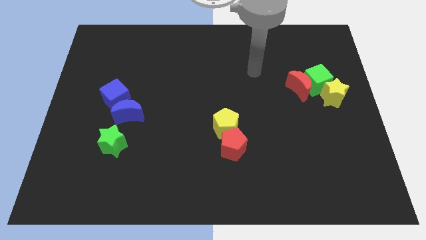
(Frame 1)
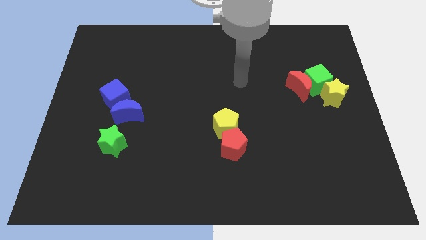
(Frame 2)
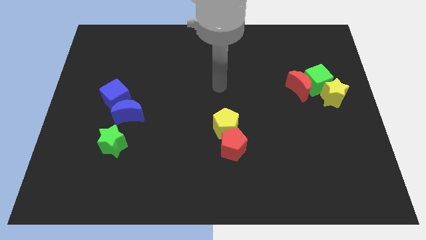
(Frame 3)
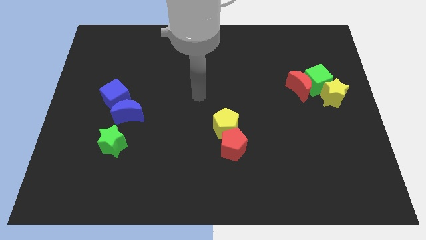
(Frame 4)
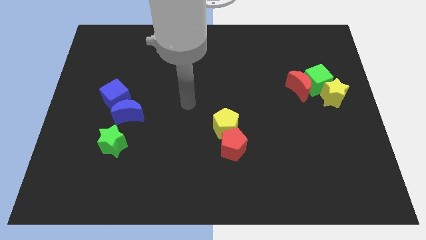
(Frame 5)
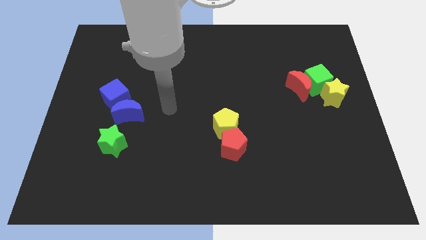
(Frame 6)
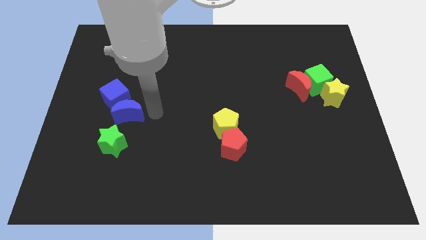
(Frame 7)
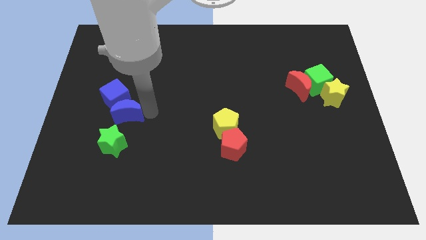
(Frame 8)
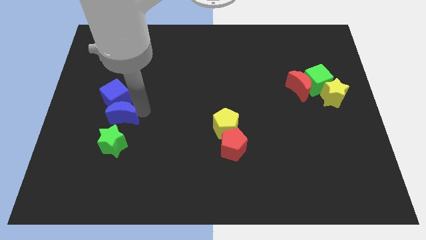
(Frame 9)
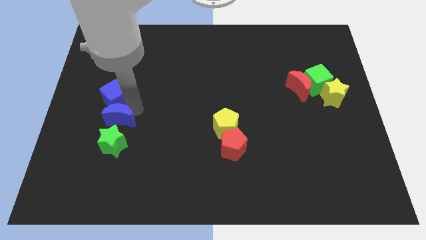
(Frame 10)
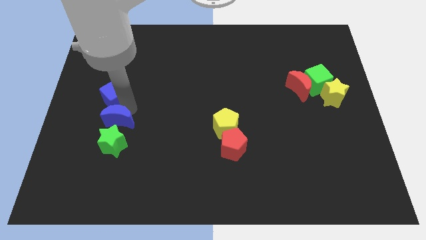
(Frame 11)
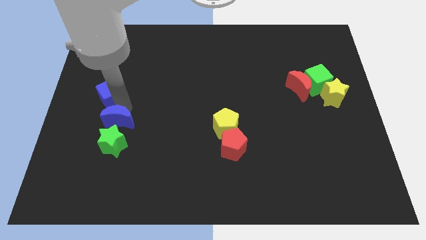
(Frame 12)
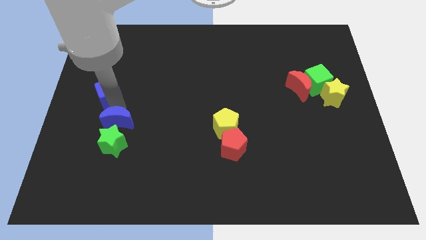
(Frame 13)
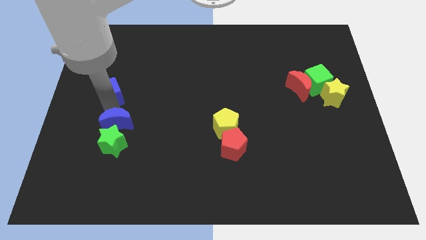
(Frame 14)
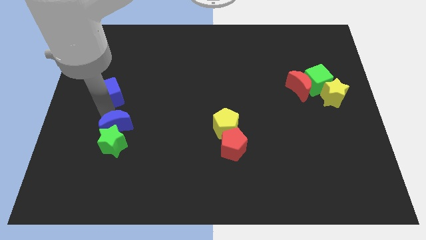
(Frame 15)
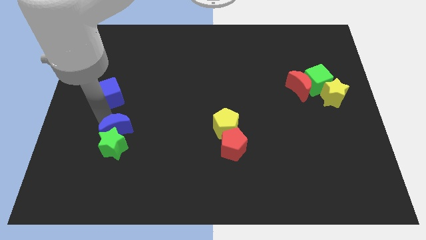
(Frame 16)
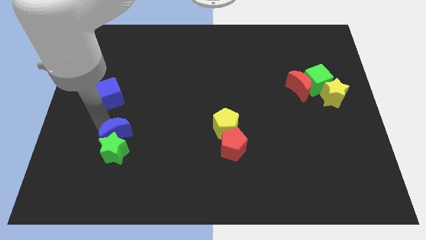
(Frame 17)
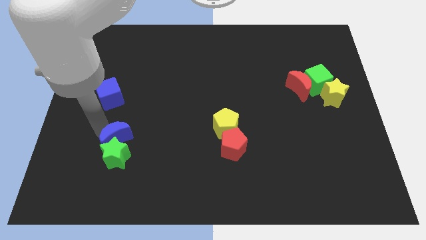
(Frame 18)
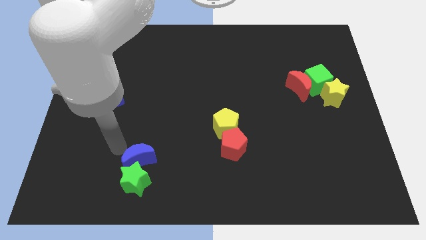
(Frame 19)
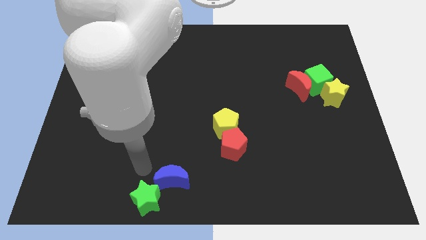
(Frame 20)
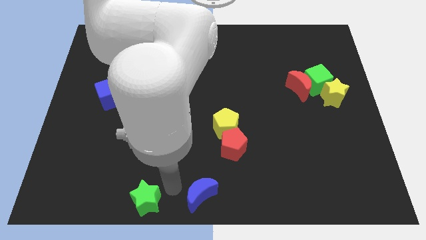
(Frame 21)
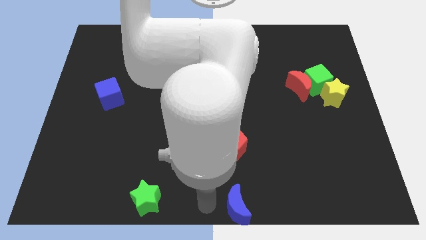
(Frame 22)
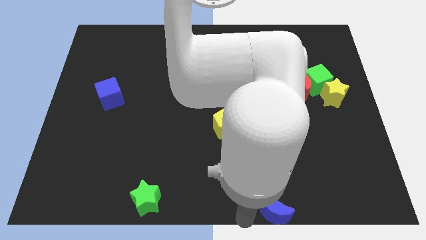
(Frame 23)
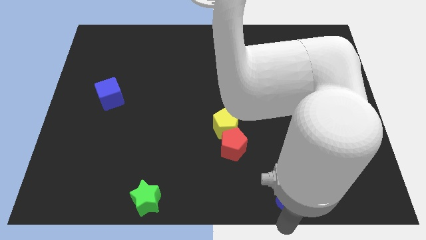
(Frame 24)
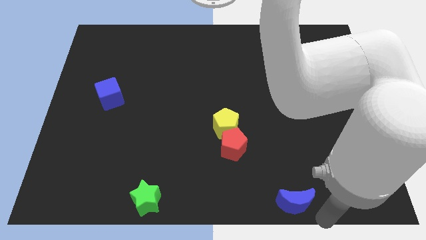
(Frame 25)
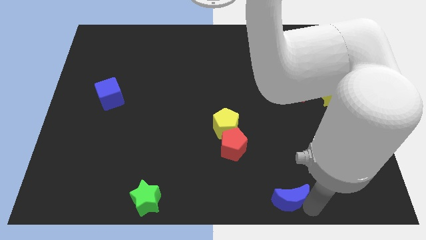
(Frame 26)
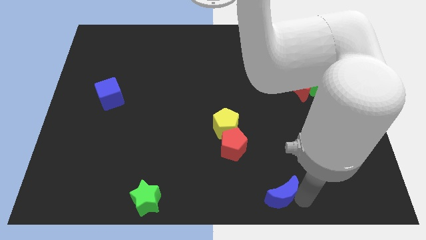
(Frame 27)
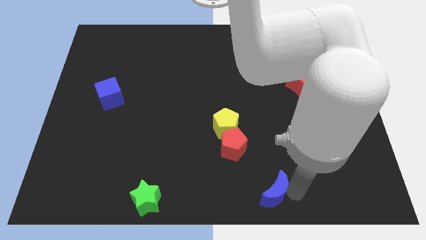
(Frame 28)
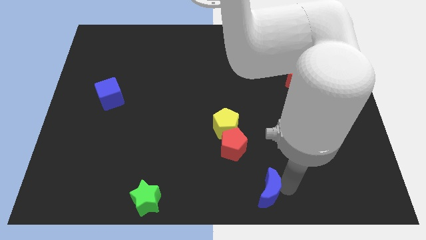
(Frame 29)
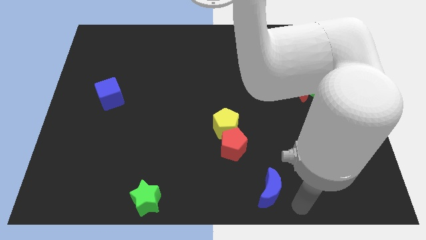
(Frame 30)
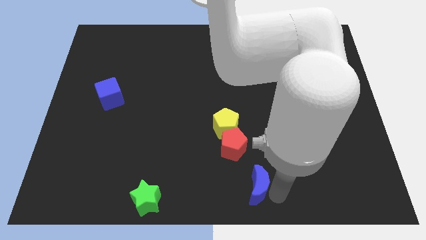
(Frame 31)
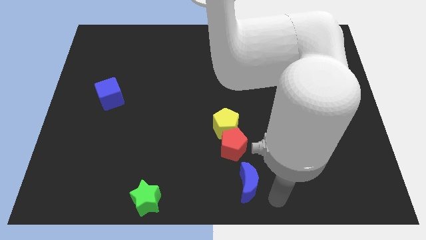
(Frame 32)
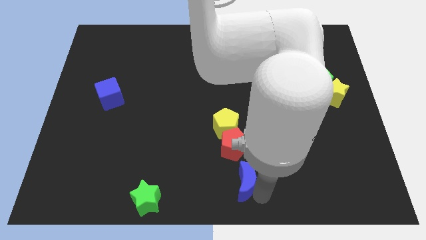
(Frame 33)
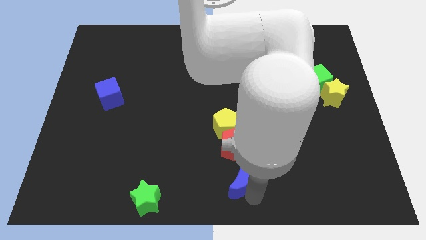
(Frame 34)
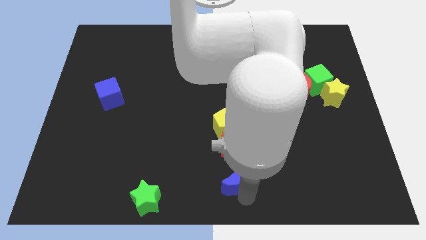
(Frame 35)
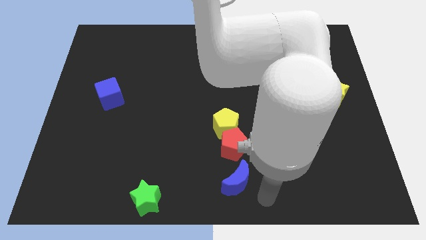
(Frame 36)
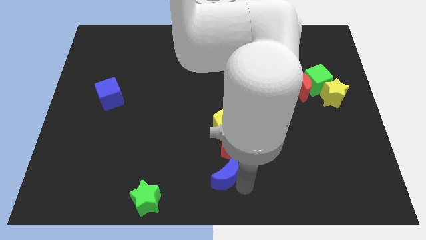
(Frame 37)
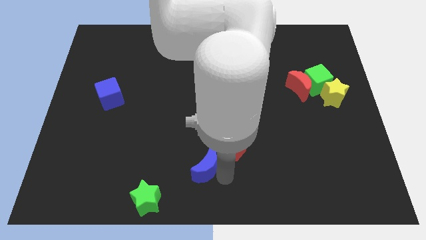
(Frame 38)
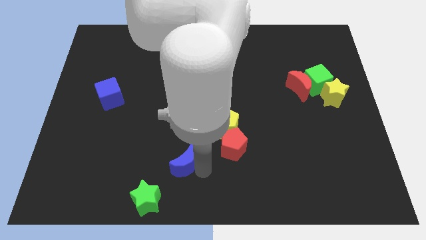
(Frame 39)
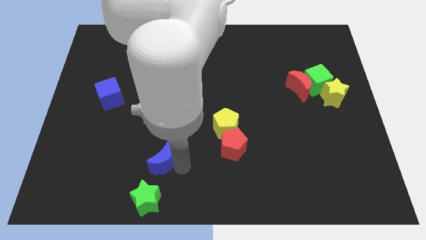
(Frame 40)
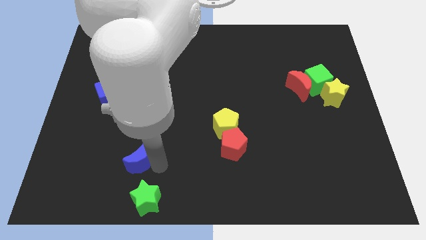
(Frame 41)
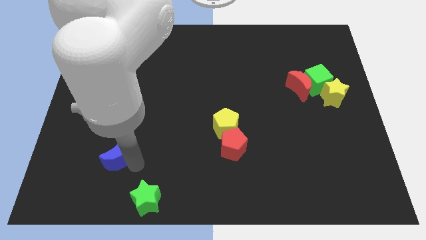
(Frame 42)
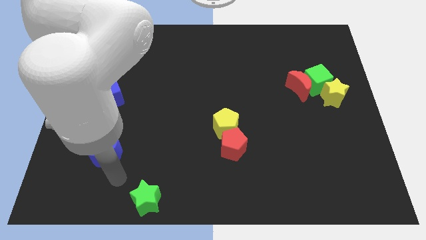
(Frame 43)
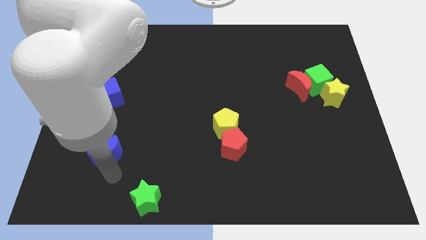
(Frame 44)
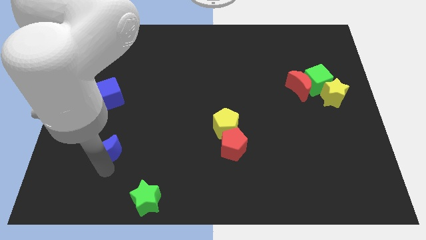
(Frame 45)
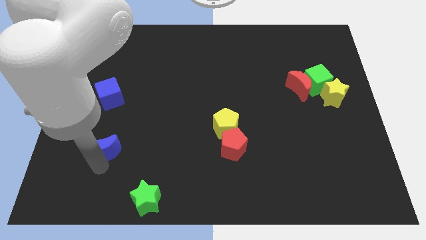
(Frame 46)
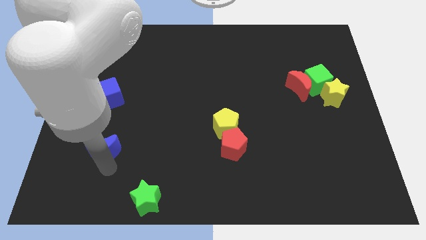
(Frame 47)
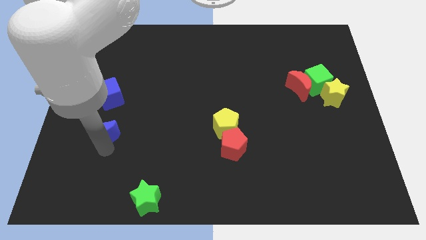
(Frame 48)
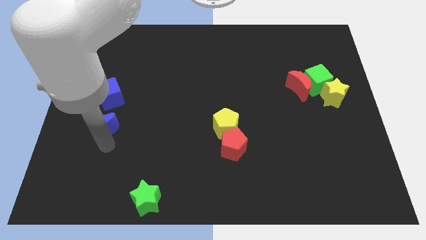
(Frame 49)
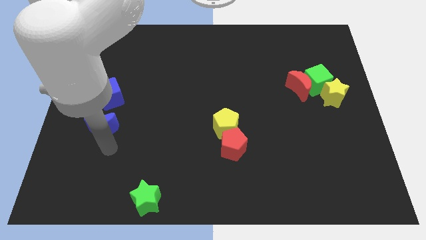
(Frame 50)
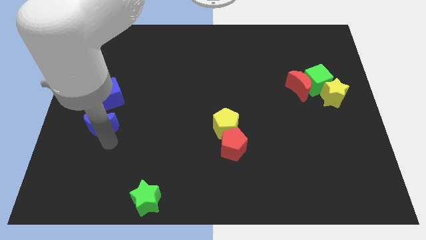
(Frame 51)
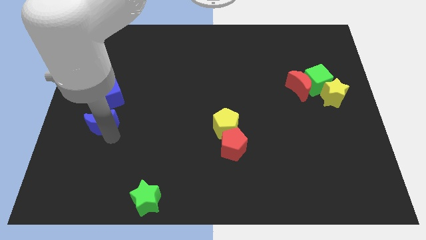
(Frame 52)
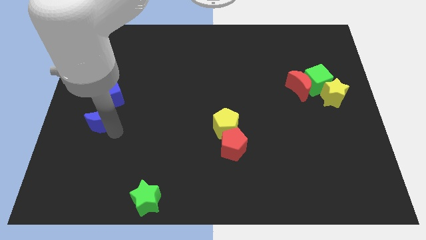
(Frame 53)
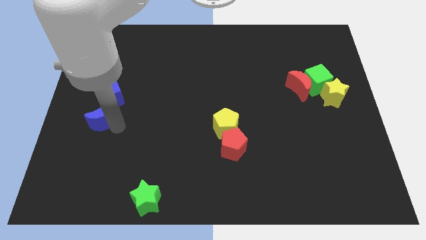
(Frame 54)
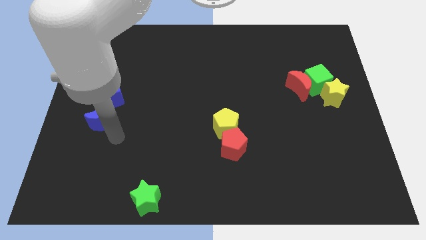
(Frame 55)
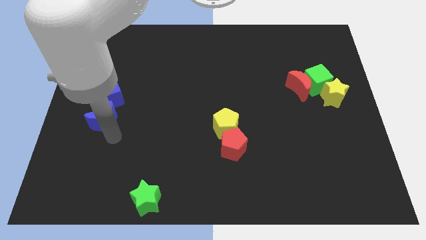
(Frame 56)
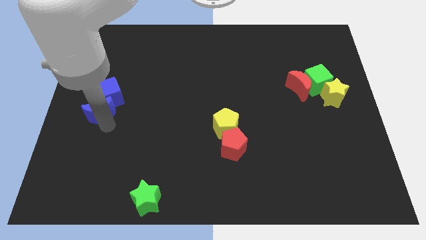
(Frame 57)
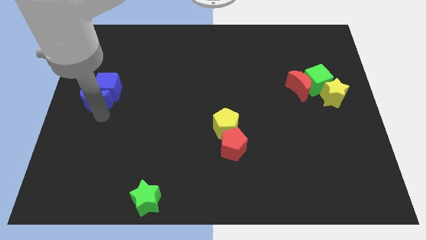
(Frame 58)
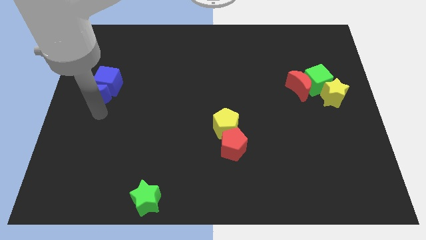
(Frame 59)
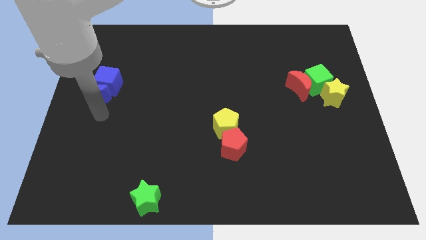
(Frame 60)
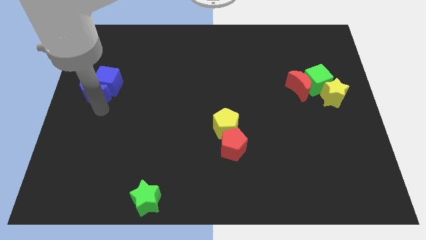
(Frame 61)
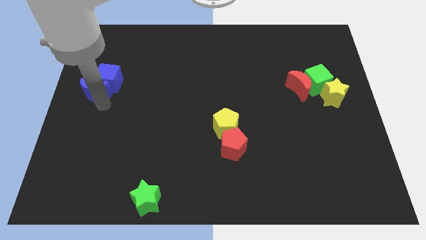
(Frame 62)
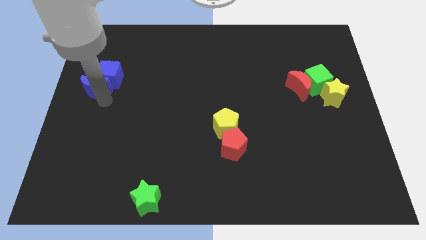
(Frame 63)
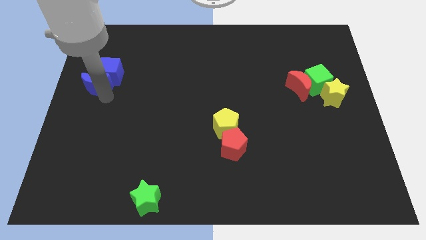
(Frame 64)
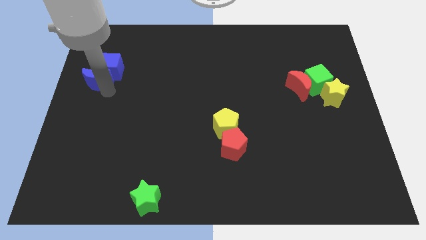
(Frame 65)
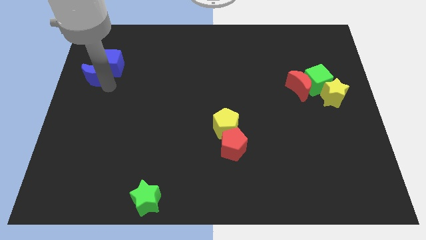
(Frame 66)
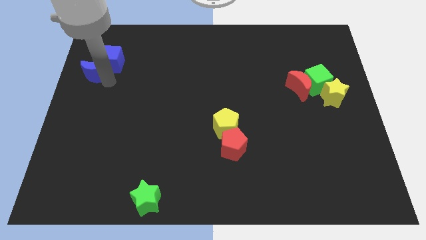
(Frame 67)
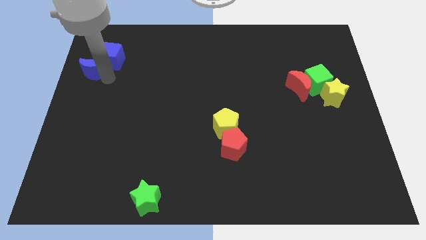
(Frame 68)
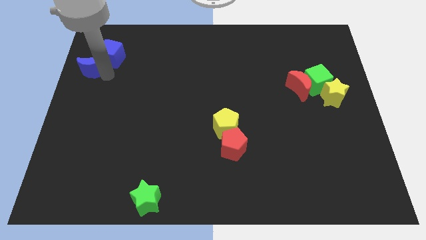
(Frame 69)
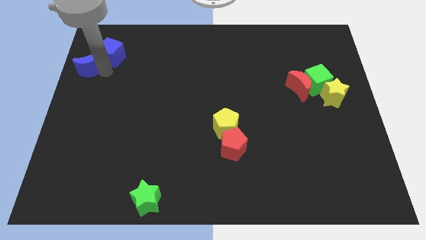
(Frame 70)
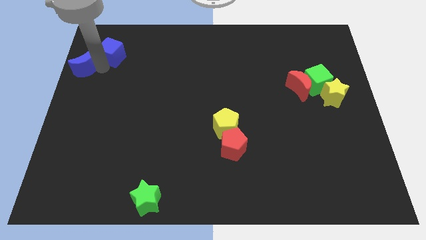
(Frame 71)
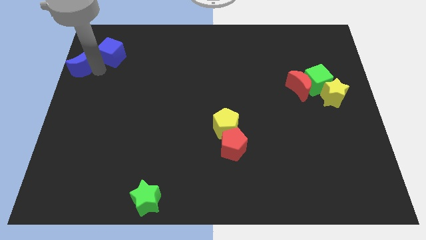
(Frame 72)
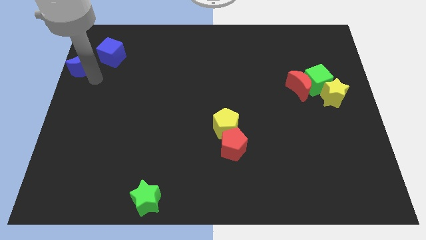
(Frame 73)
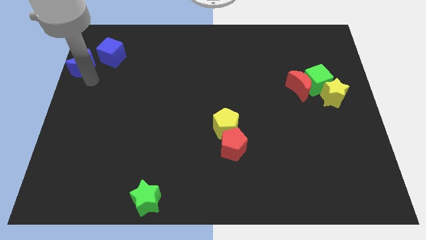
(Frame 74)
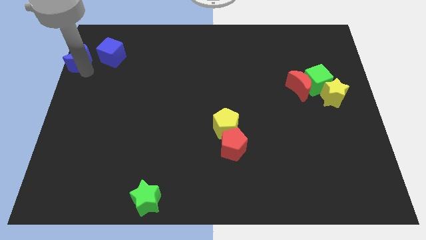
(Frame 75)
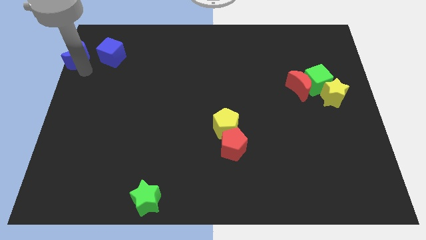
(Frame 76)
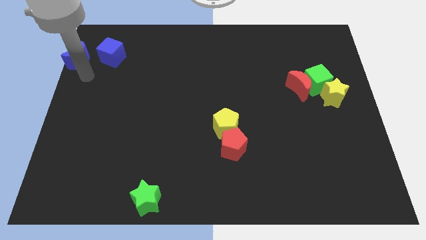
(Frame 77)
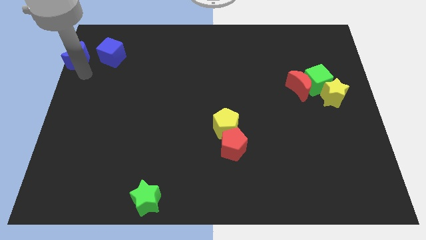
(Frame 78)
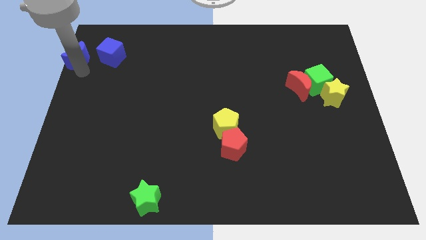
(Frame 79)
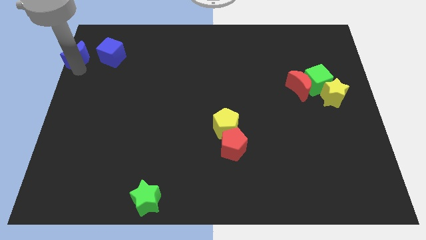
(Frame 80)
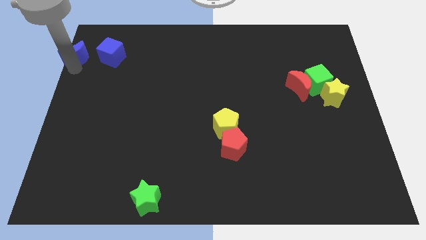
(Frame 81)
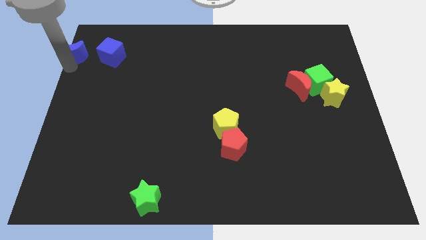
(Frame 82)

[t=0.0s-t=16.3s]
move the blue moon to the top left

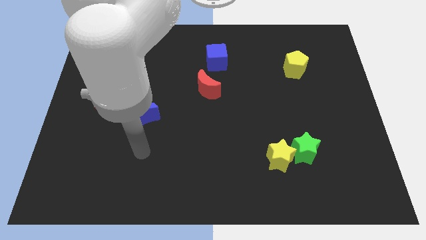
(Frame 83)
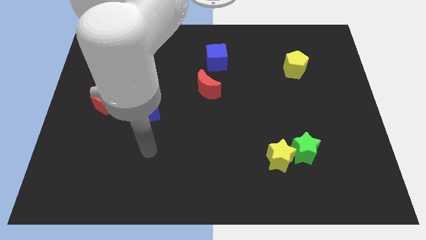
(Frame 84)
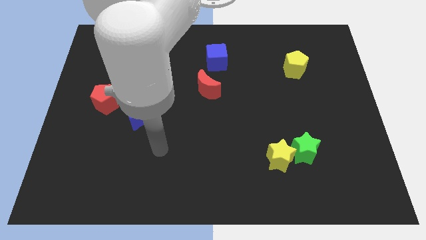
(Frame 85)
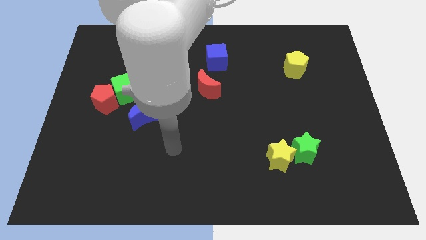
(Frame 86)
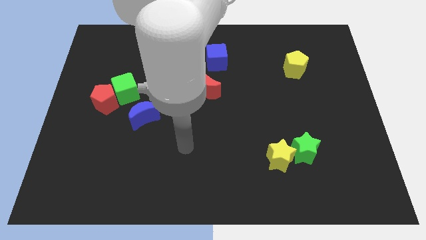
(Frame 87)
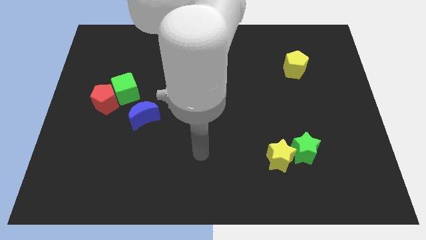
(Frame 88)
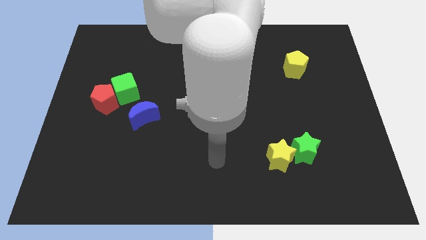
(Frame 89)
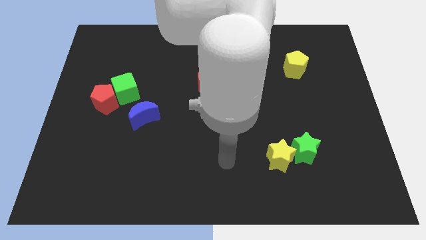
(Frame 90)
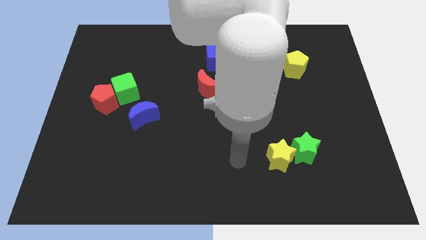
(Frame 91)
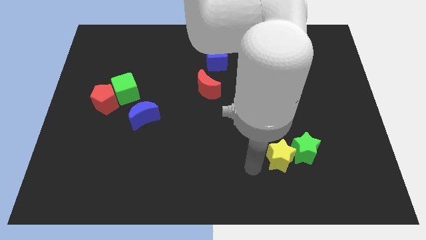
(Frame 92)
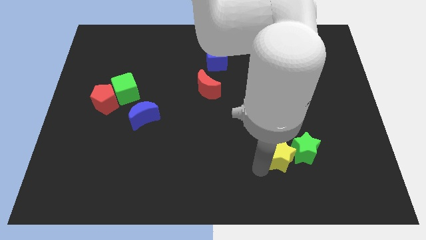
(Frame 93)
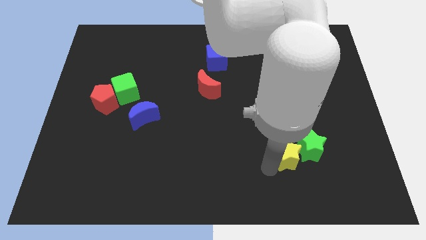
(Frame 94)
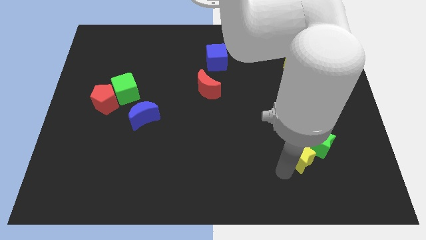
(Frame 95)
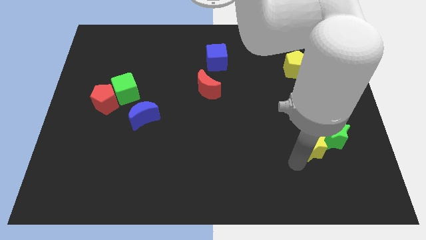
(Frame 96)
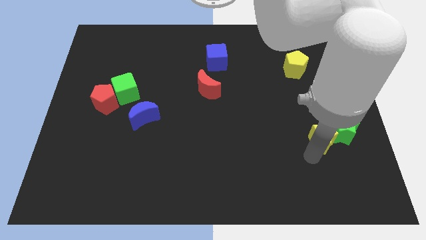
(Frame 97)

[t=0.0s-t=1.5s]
move the green star to the right side of the board
